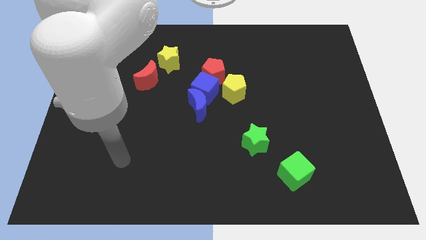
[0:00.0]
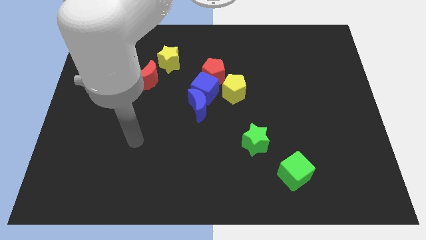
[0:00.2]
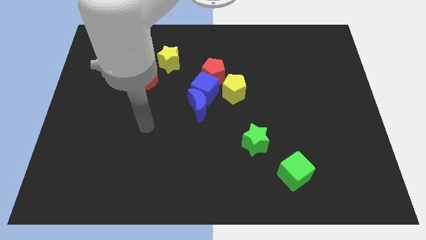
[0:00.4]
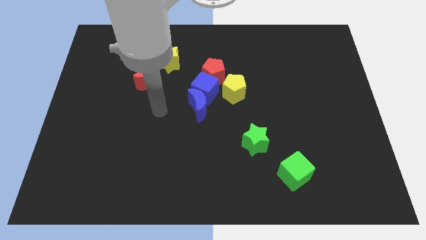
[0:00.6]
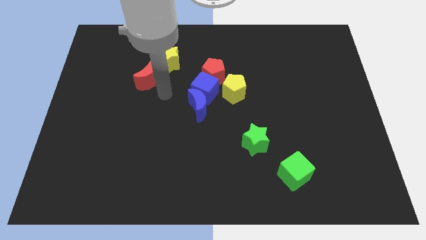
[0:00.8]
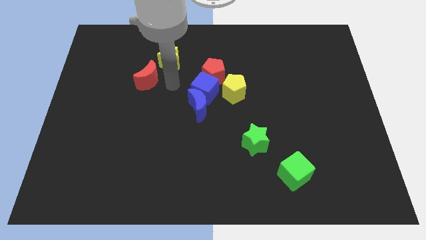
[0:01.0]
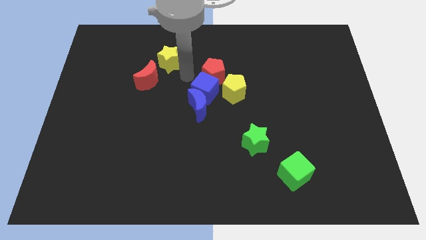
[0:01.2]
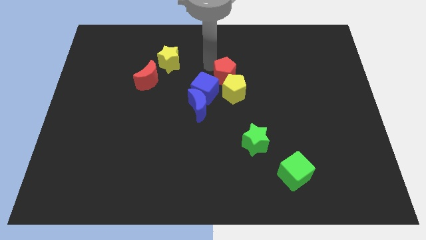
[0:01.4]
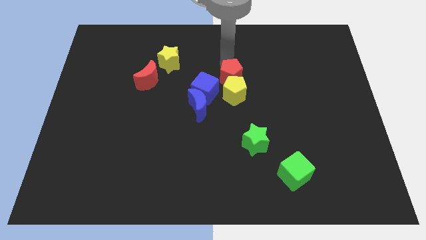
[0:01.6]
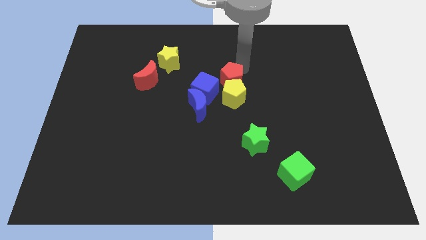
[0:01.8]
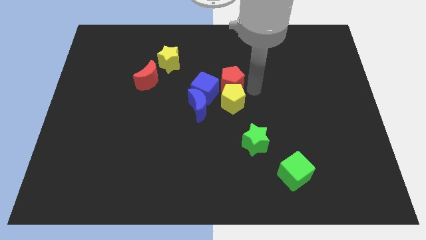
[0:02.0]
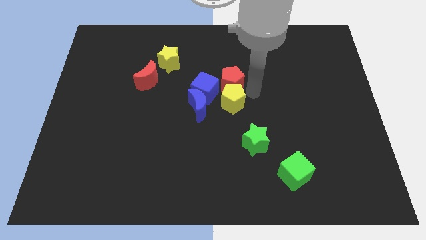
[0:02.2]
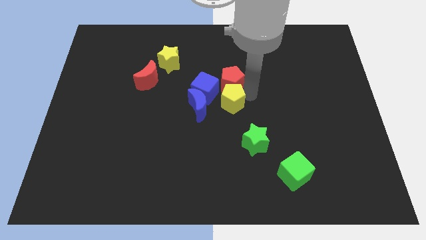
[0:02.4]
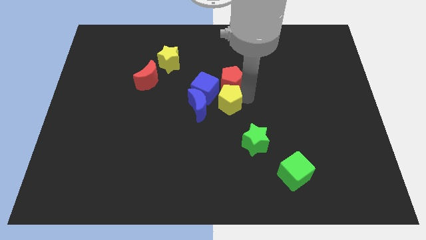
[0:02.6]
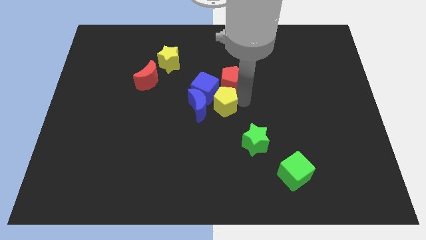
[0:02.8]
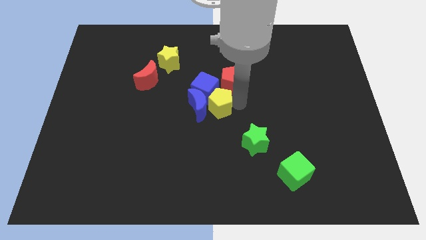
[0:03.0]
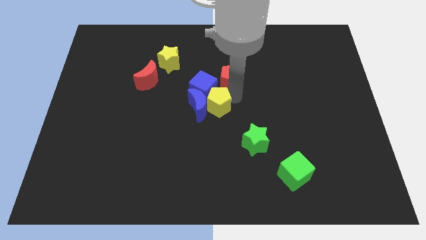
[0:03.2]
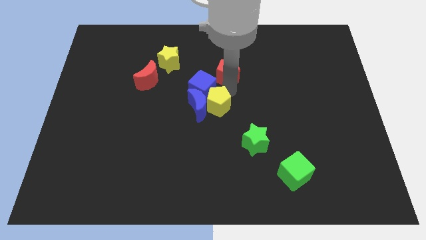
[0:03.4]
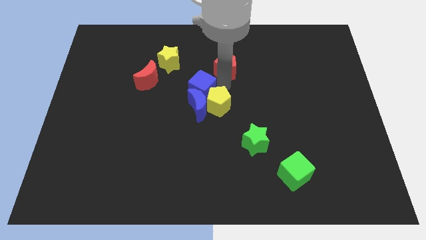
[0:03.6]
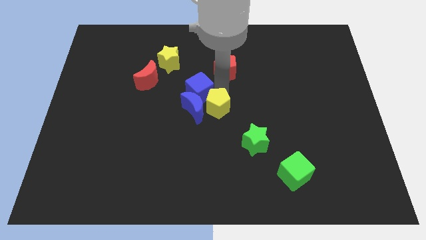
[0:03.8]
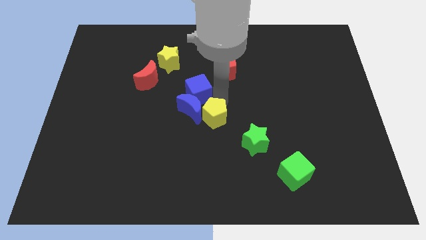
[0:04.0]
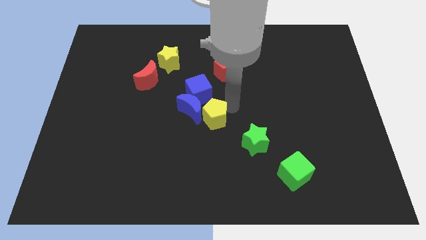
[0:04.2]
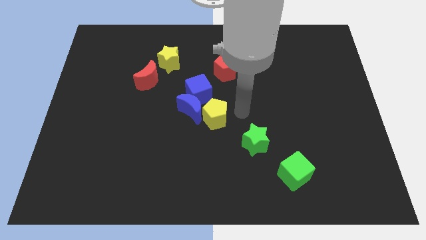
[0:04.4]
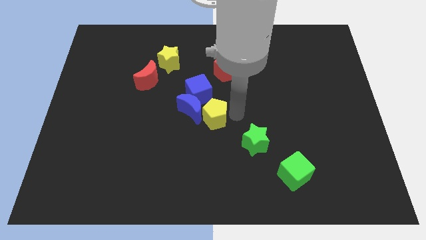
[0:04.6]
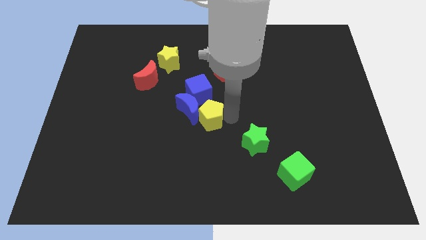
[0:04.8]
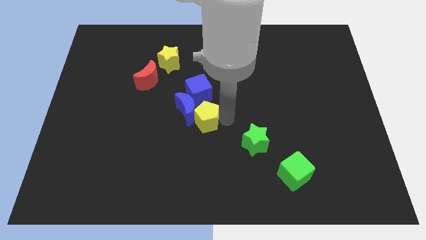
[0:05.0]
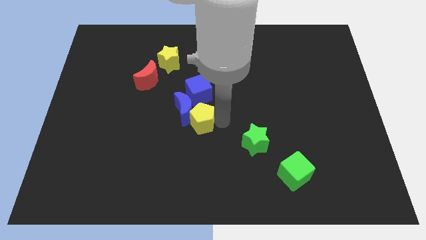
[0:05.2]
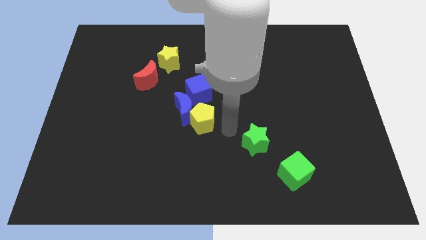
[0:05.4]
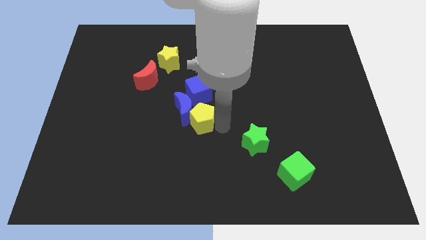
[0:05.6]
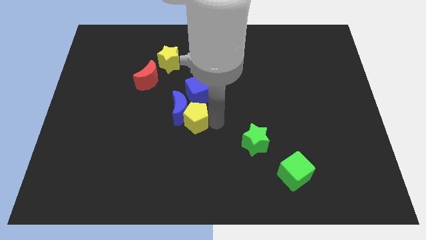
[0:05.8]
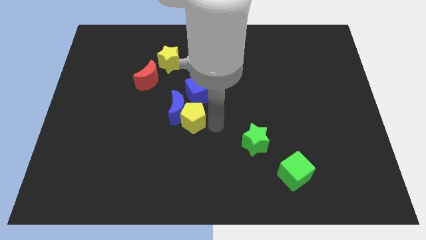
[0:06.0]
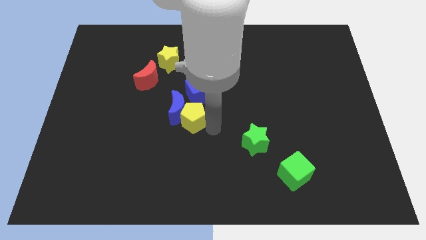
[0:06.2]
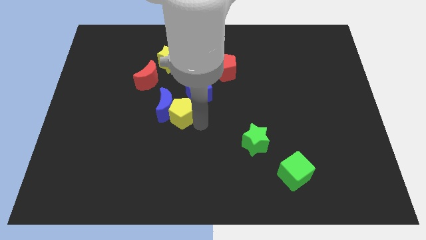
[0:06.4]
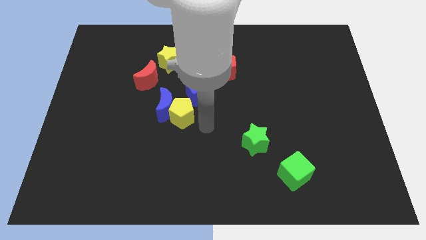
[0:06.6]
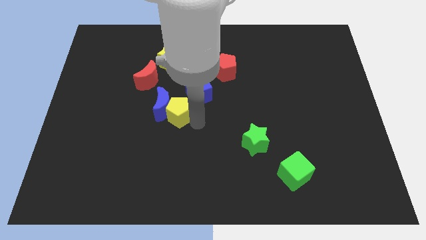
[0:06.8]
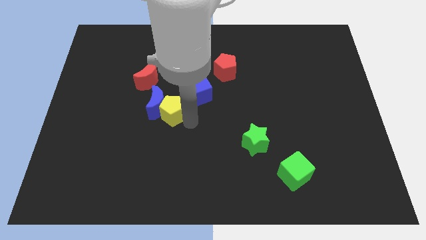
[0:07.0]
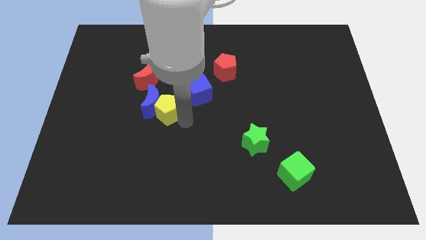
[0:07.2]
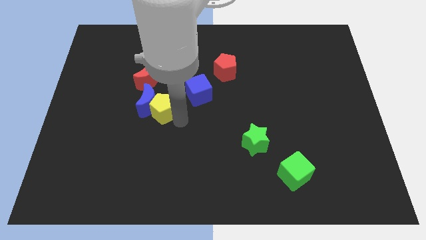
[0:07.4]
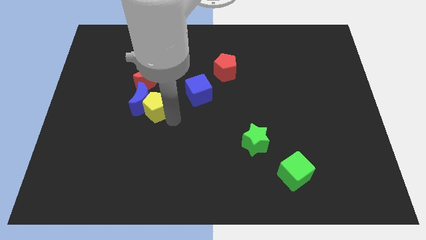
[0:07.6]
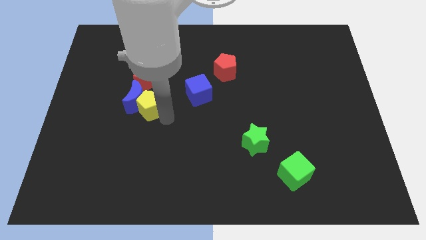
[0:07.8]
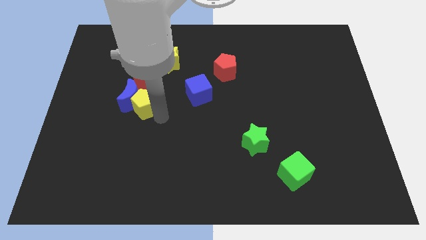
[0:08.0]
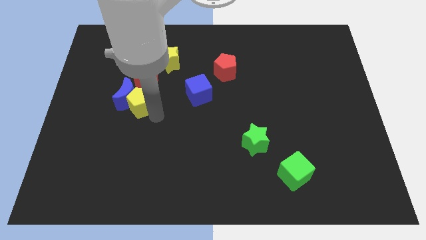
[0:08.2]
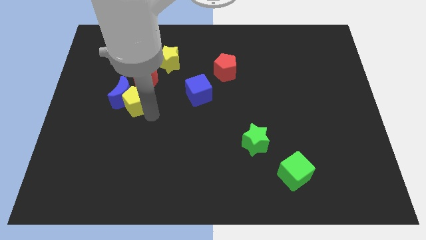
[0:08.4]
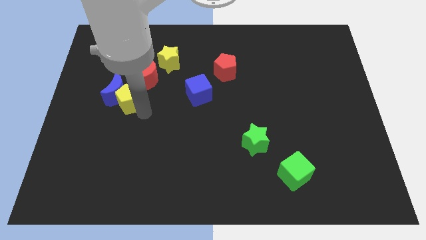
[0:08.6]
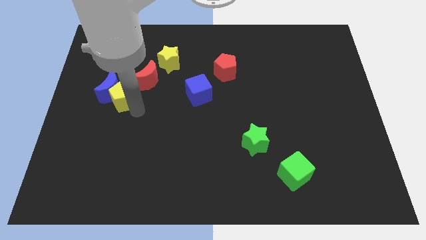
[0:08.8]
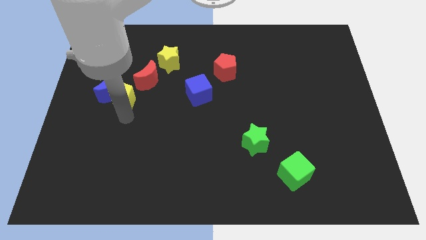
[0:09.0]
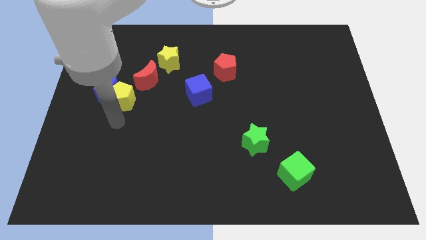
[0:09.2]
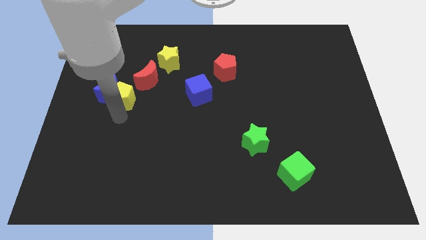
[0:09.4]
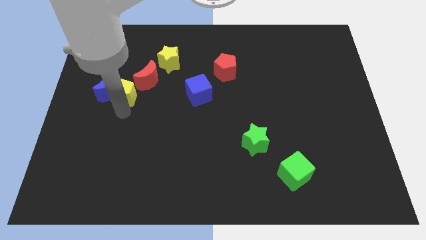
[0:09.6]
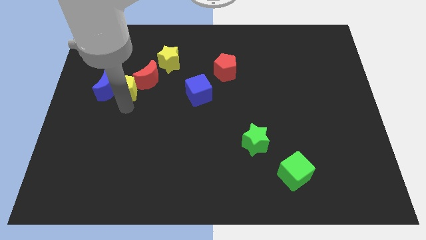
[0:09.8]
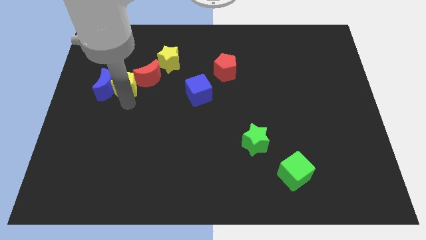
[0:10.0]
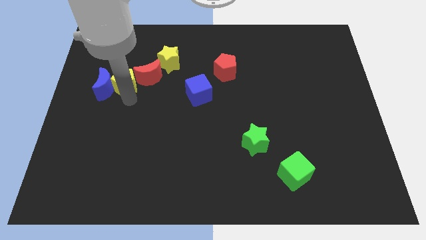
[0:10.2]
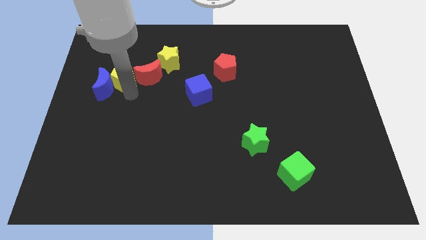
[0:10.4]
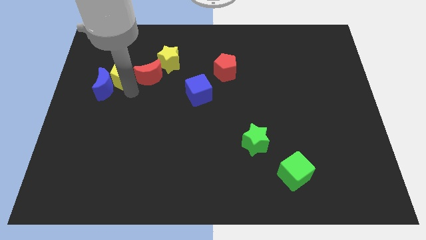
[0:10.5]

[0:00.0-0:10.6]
push the yellow pentagon diagonally up and to the left of the red moon

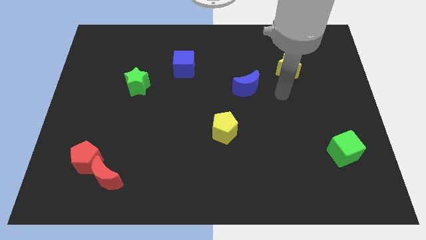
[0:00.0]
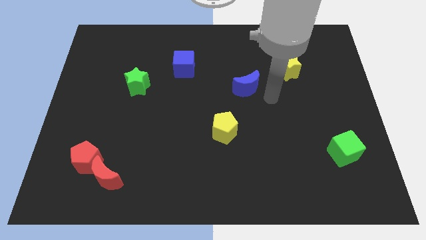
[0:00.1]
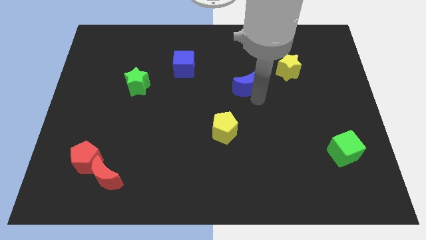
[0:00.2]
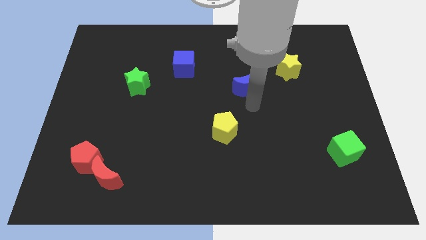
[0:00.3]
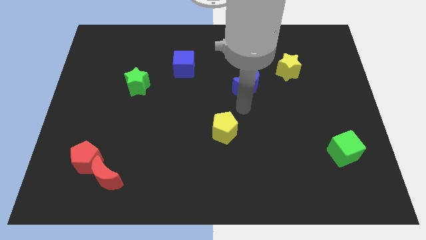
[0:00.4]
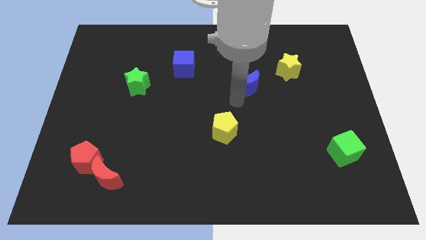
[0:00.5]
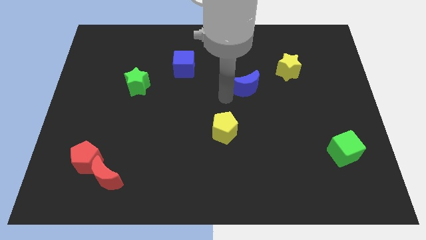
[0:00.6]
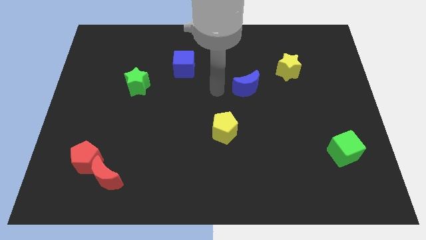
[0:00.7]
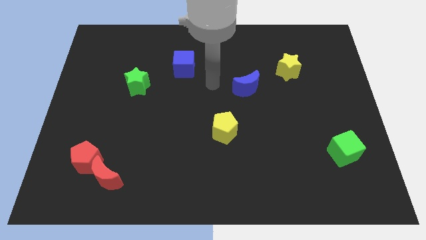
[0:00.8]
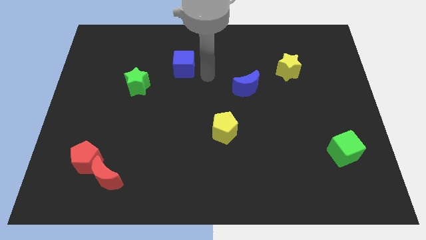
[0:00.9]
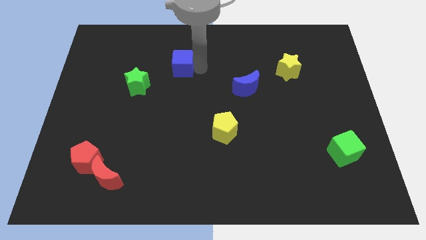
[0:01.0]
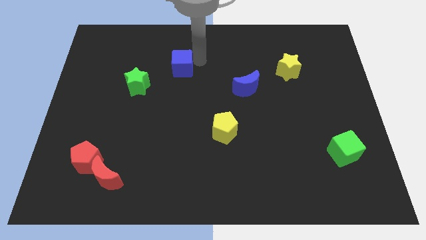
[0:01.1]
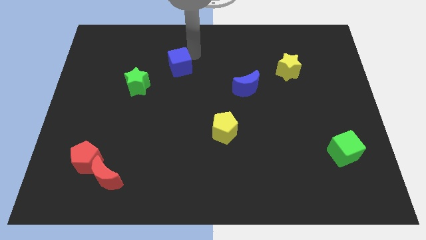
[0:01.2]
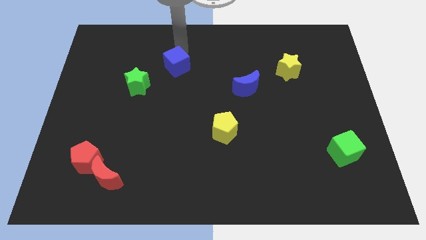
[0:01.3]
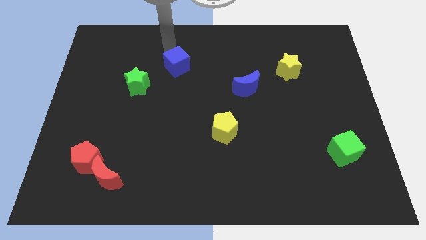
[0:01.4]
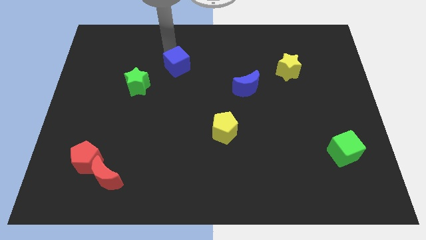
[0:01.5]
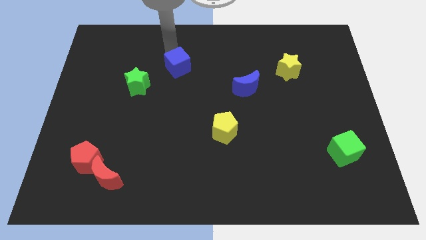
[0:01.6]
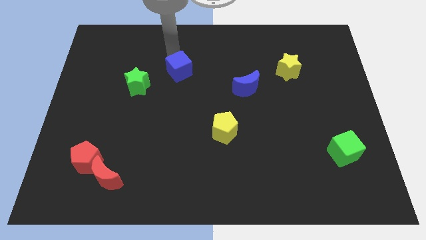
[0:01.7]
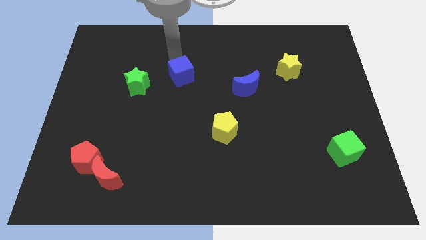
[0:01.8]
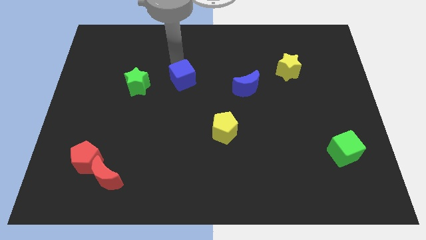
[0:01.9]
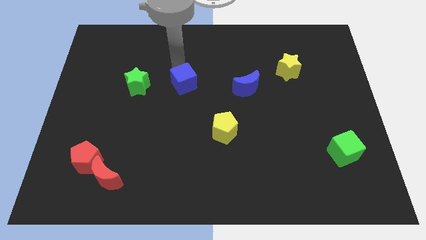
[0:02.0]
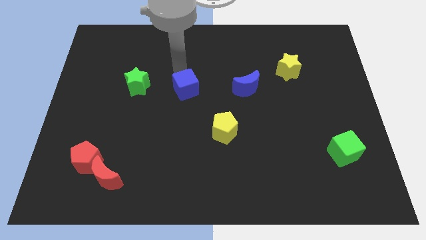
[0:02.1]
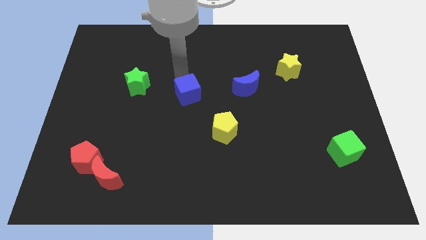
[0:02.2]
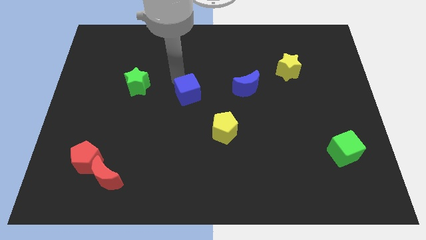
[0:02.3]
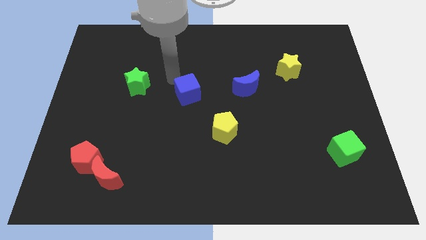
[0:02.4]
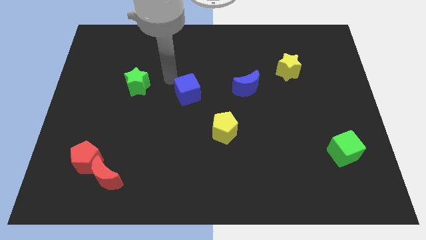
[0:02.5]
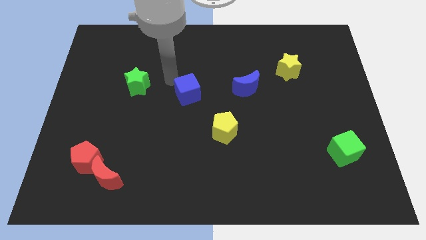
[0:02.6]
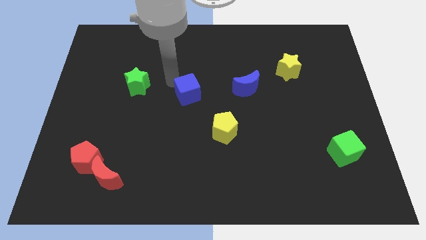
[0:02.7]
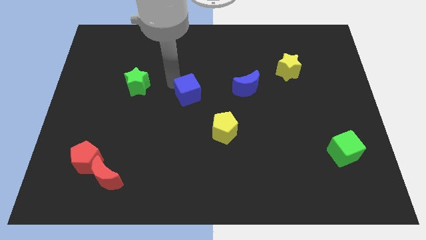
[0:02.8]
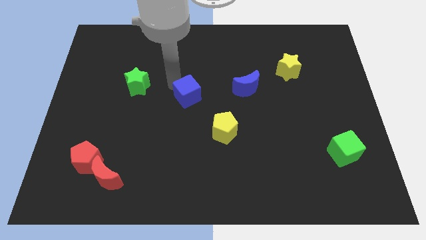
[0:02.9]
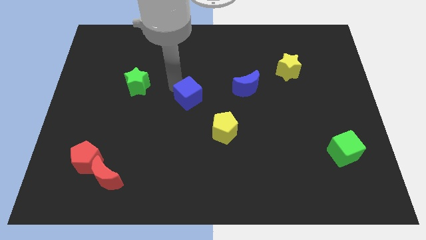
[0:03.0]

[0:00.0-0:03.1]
push the blue cube to the top left side of the yellow pentagon
